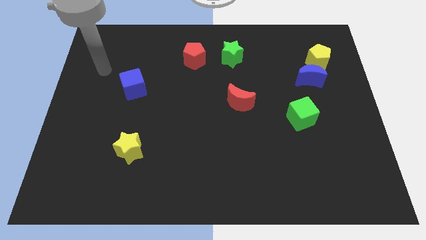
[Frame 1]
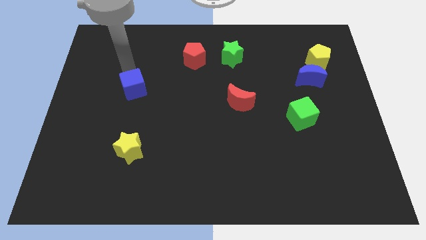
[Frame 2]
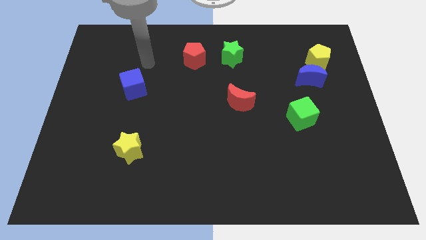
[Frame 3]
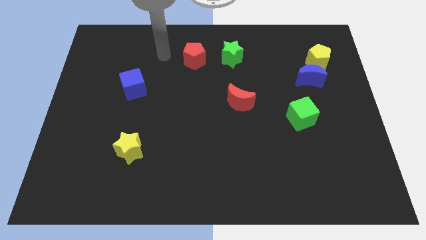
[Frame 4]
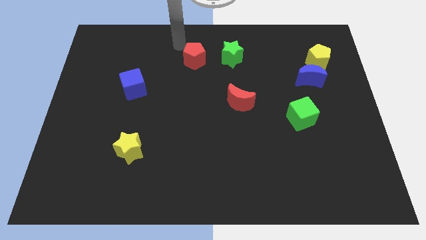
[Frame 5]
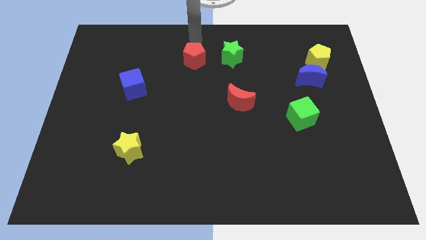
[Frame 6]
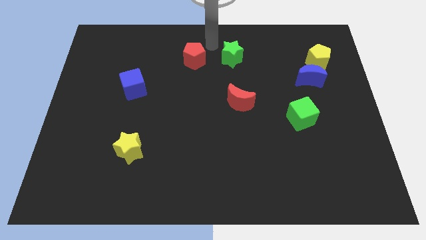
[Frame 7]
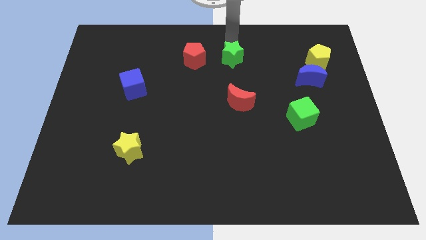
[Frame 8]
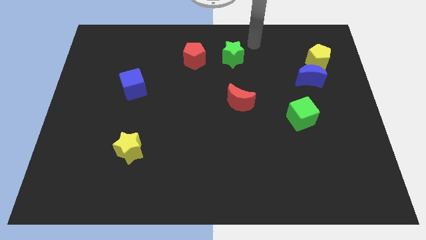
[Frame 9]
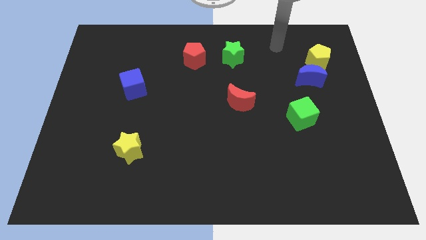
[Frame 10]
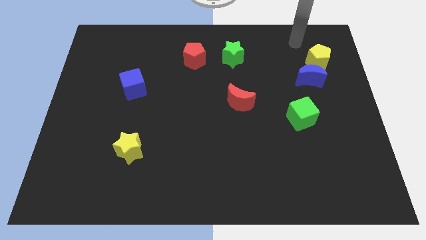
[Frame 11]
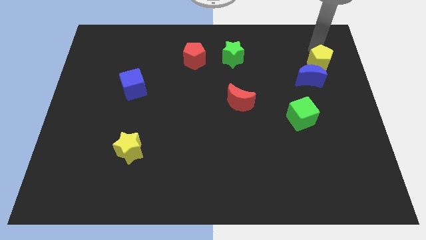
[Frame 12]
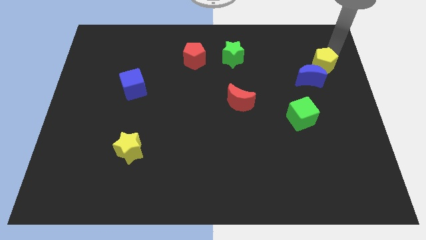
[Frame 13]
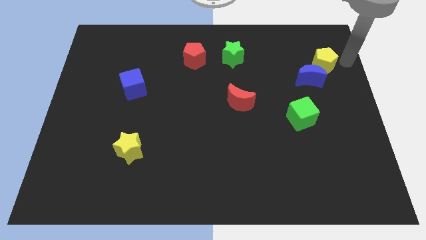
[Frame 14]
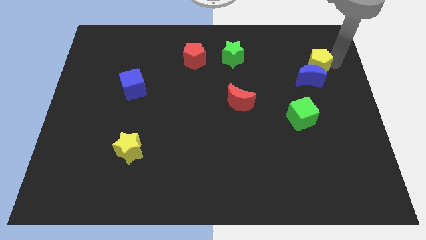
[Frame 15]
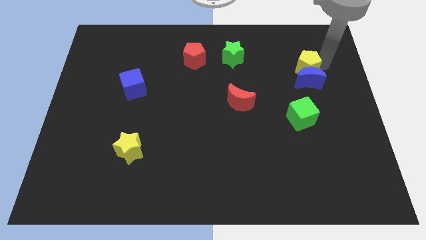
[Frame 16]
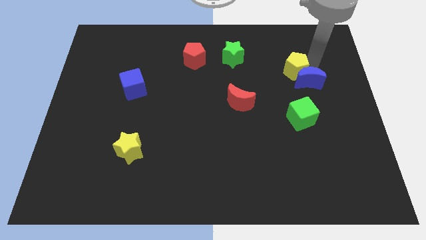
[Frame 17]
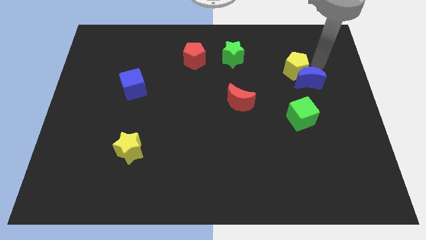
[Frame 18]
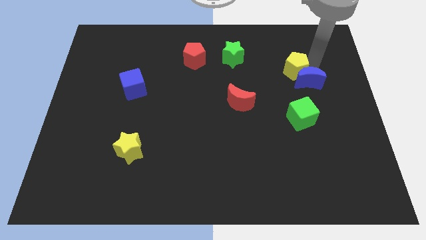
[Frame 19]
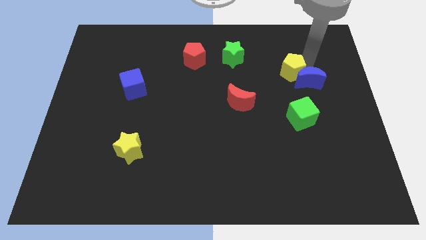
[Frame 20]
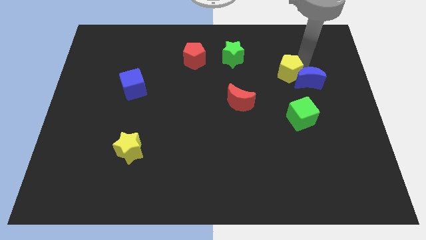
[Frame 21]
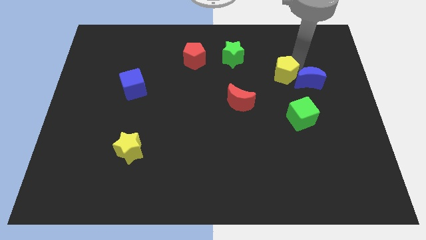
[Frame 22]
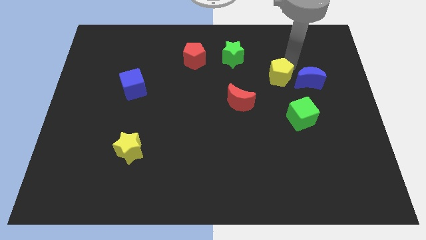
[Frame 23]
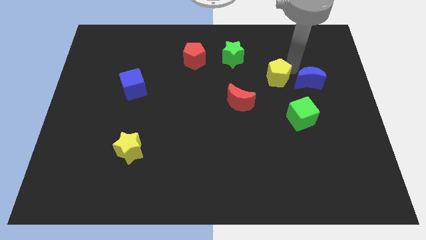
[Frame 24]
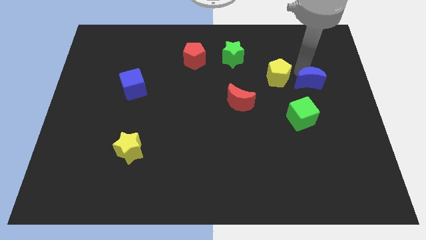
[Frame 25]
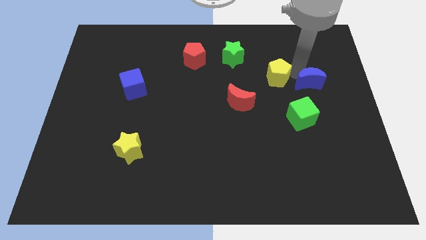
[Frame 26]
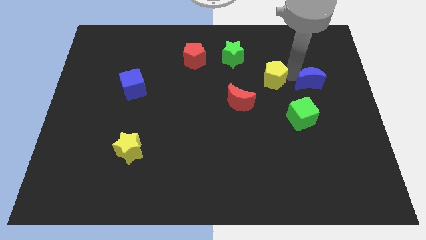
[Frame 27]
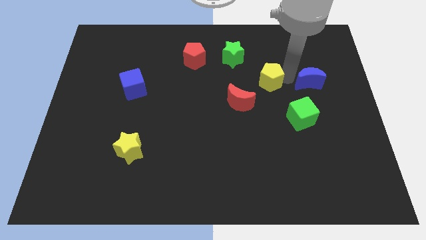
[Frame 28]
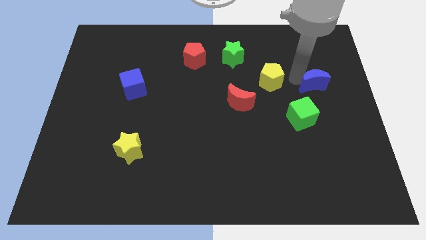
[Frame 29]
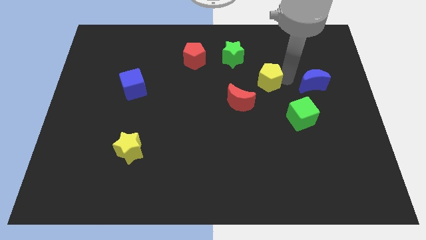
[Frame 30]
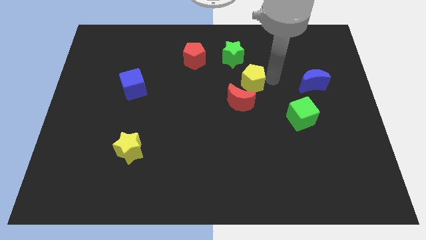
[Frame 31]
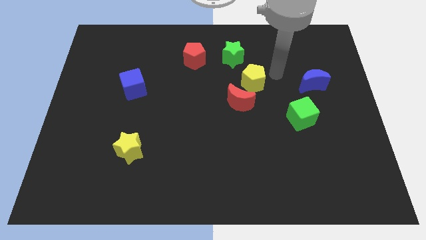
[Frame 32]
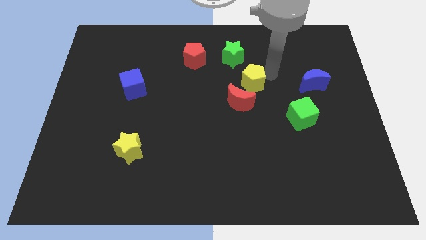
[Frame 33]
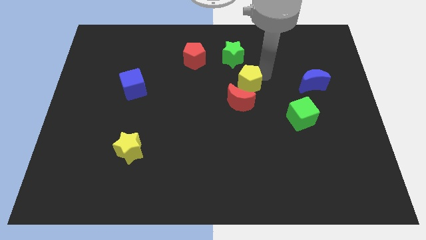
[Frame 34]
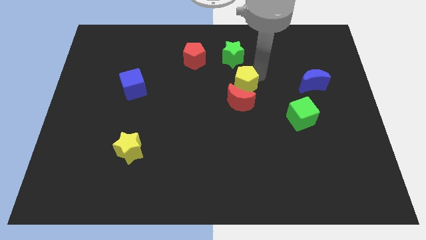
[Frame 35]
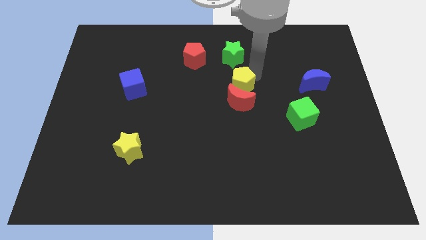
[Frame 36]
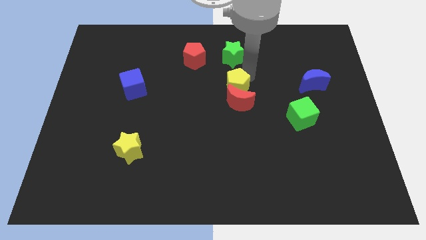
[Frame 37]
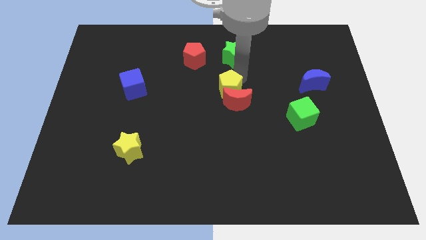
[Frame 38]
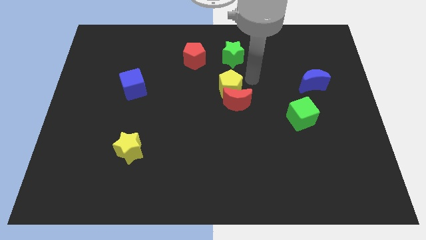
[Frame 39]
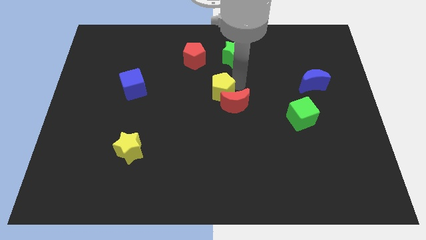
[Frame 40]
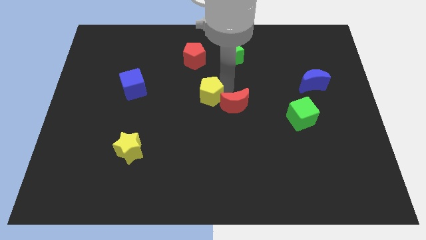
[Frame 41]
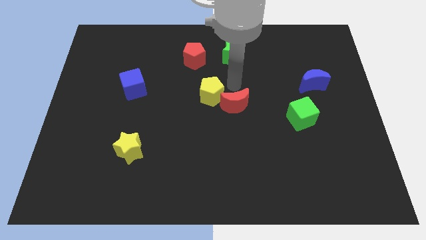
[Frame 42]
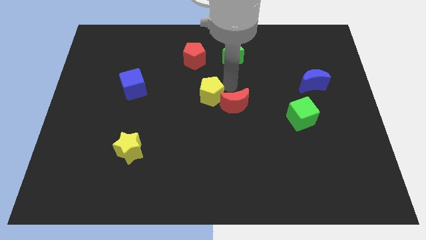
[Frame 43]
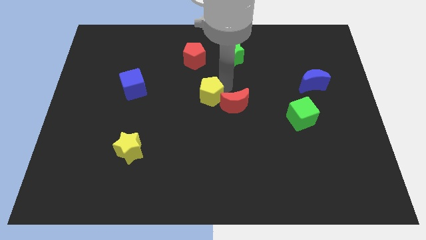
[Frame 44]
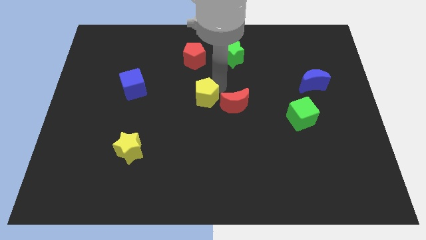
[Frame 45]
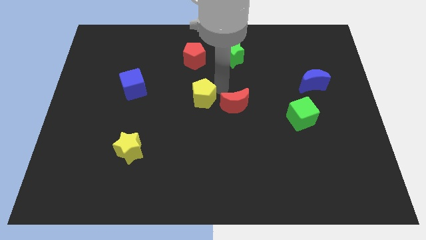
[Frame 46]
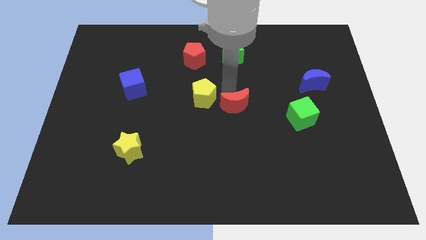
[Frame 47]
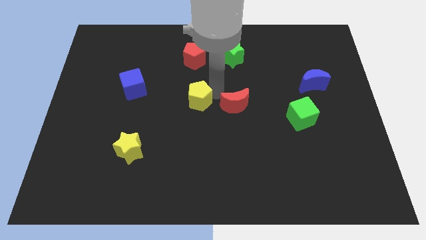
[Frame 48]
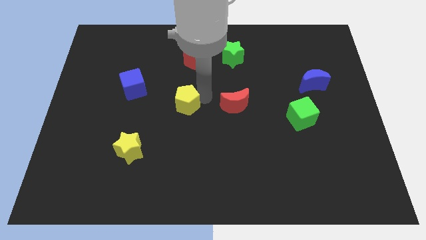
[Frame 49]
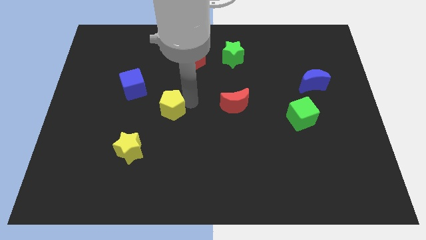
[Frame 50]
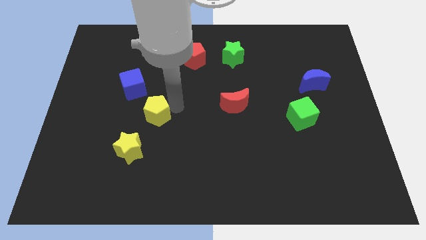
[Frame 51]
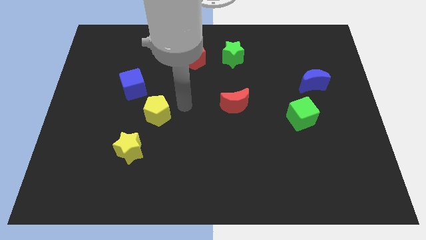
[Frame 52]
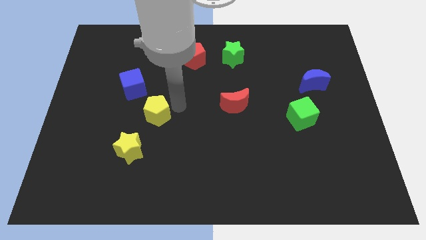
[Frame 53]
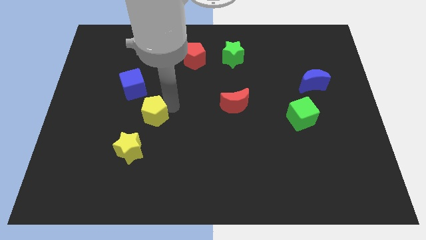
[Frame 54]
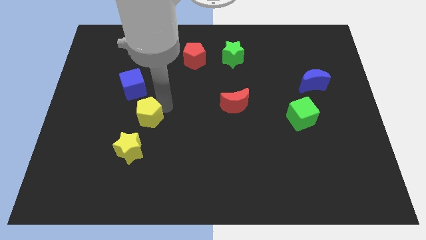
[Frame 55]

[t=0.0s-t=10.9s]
move the yellow pentagon below the blue cube

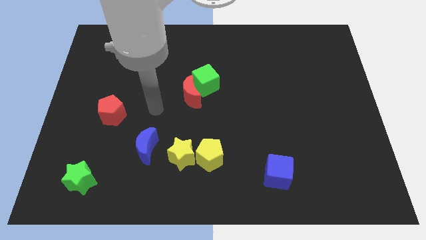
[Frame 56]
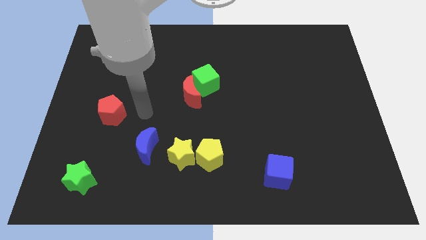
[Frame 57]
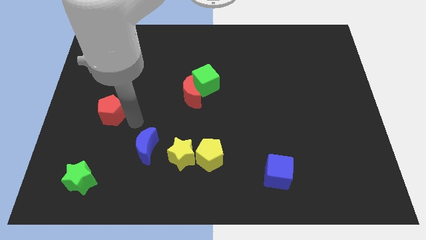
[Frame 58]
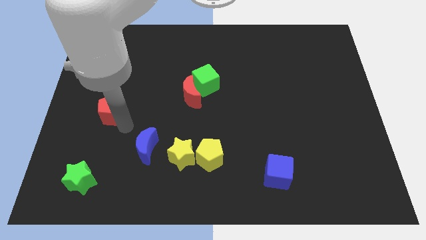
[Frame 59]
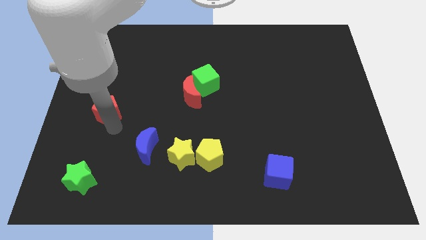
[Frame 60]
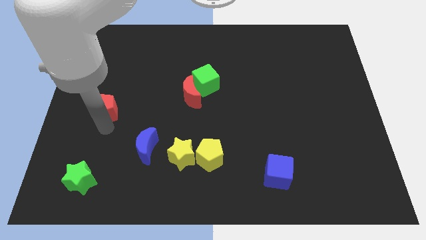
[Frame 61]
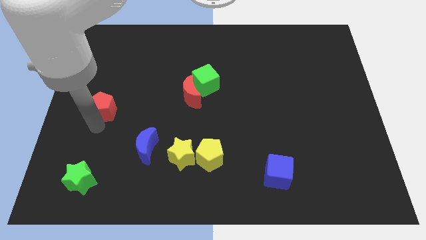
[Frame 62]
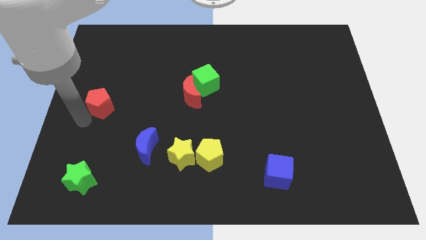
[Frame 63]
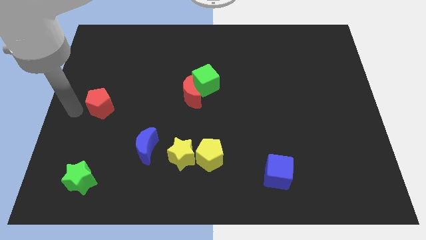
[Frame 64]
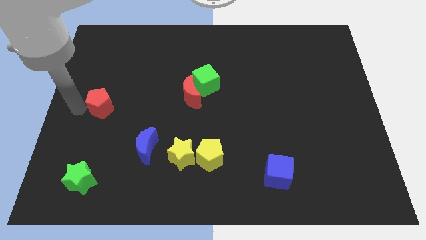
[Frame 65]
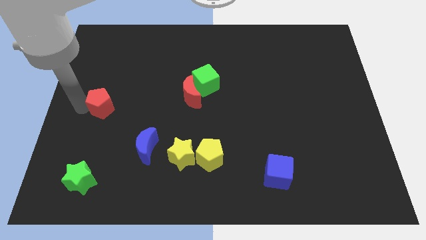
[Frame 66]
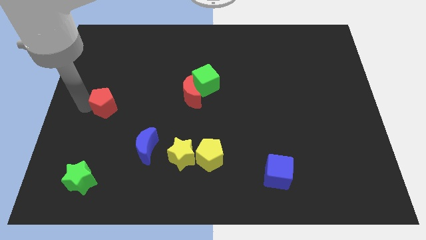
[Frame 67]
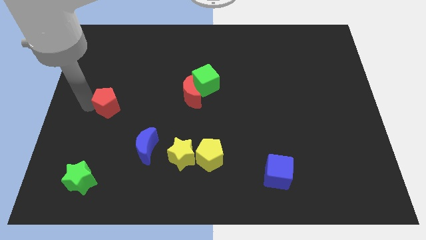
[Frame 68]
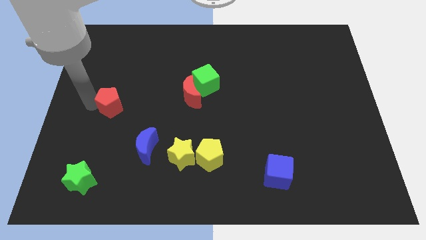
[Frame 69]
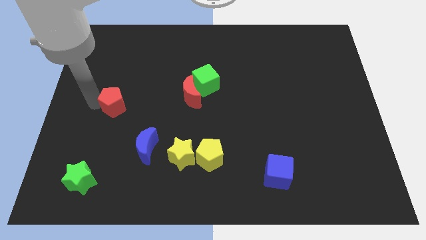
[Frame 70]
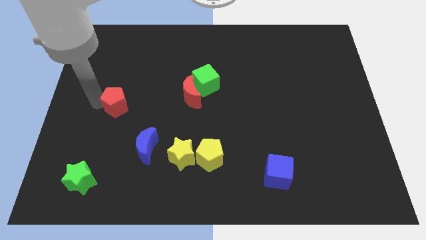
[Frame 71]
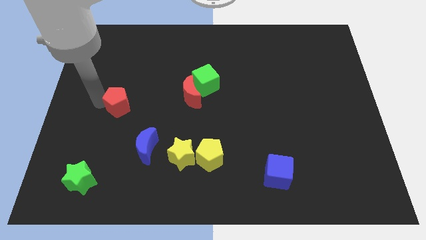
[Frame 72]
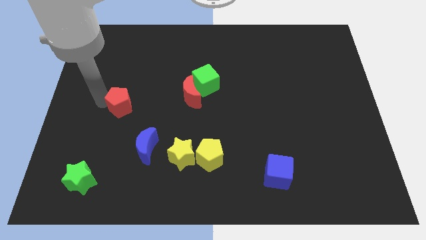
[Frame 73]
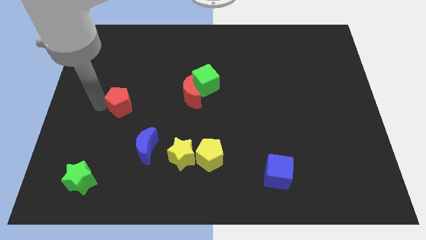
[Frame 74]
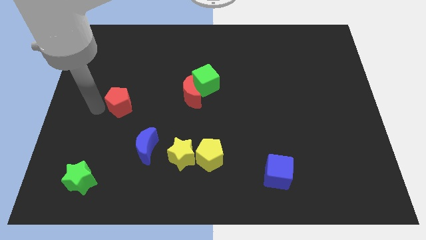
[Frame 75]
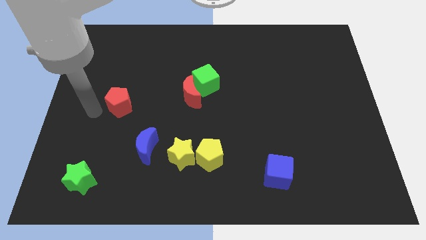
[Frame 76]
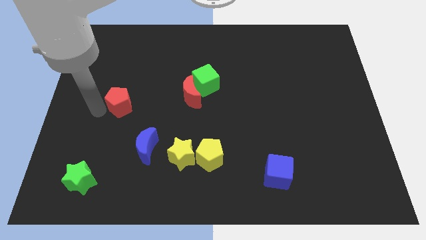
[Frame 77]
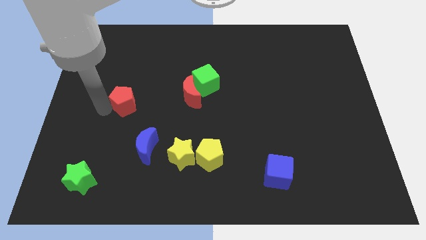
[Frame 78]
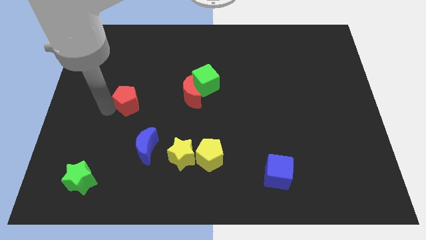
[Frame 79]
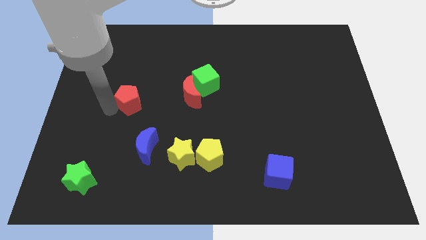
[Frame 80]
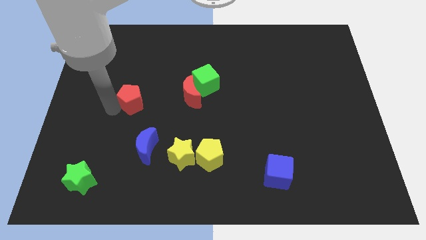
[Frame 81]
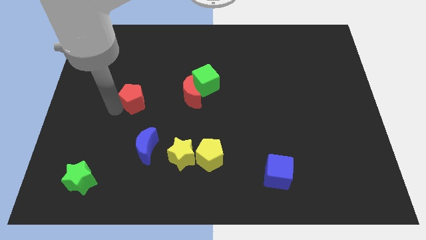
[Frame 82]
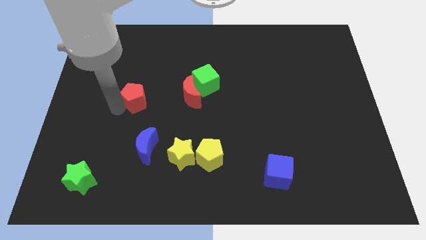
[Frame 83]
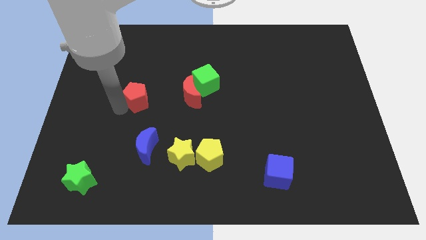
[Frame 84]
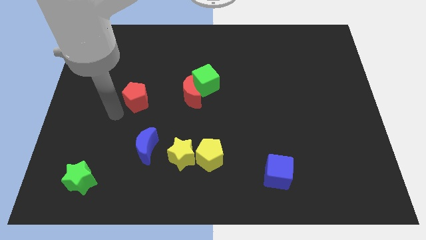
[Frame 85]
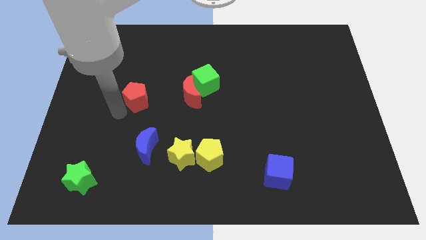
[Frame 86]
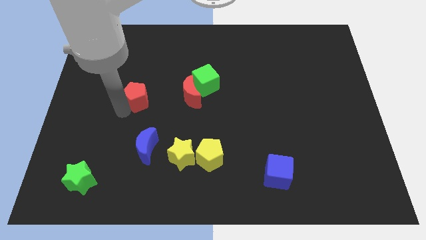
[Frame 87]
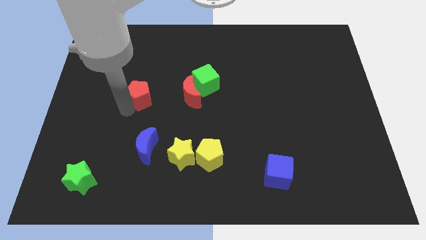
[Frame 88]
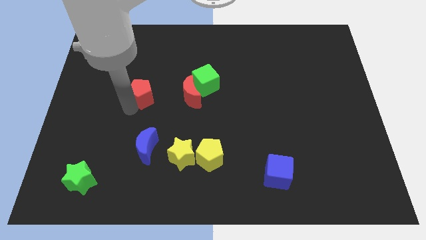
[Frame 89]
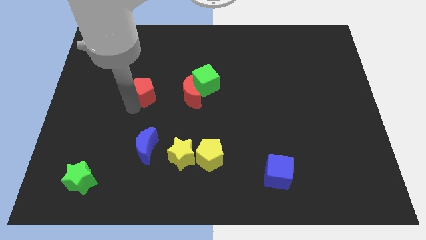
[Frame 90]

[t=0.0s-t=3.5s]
slide the red pentagon just left of the green cube
